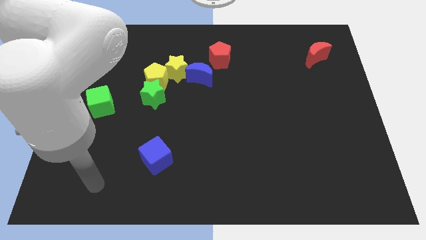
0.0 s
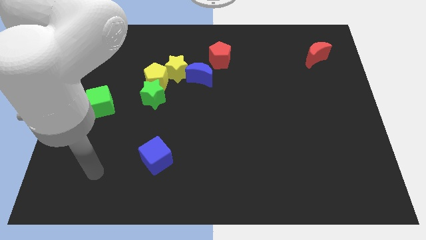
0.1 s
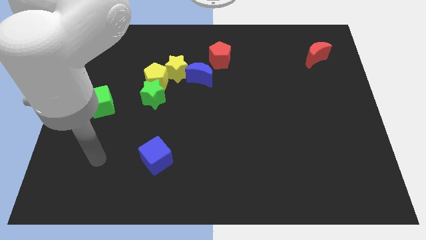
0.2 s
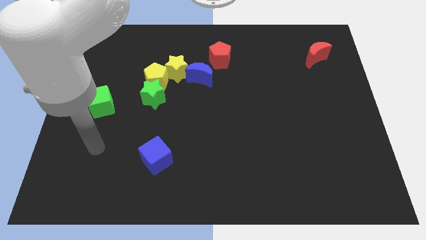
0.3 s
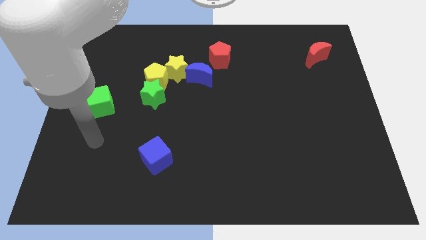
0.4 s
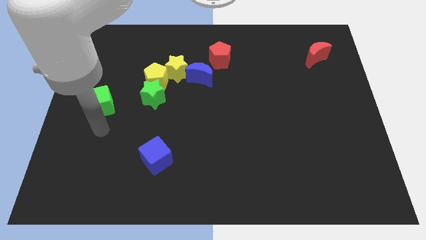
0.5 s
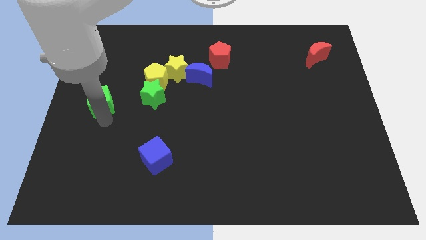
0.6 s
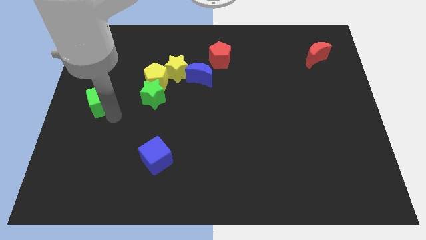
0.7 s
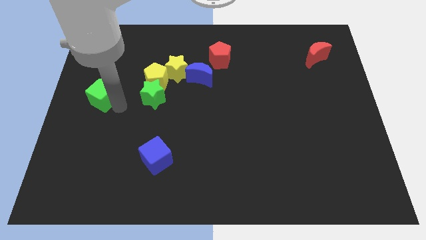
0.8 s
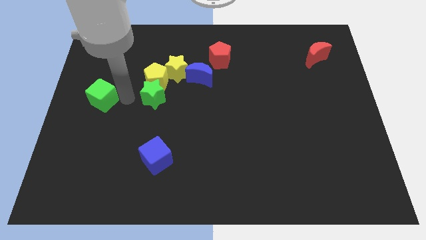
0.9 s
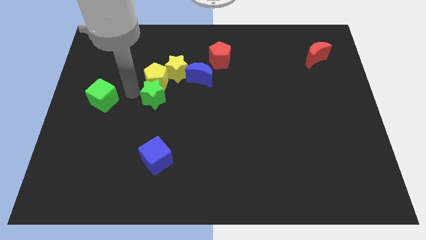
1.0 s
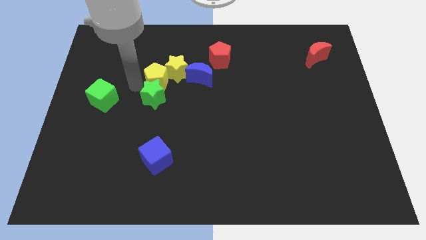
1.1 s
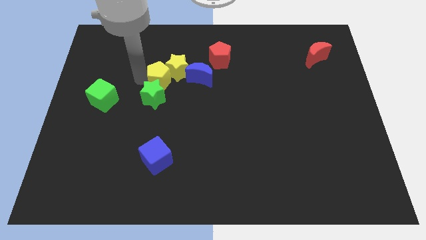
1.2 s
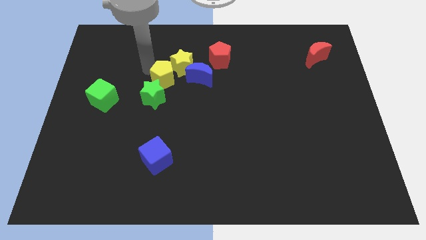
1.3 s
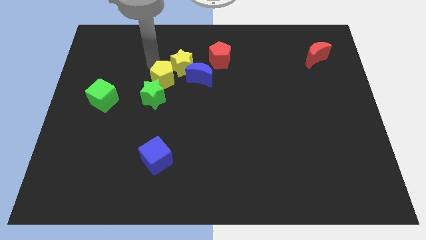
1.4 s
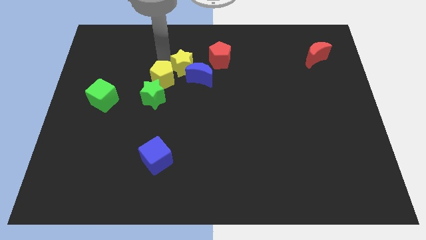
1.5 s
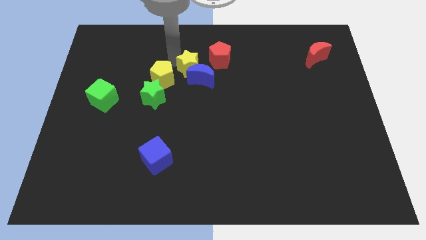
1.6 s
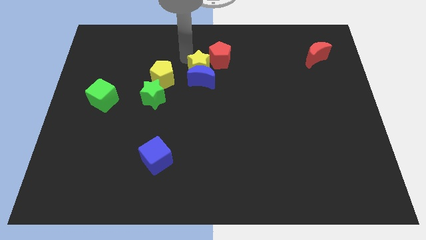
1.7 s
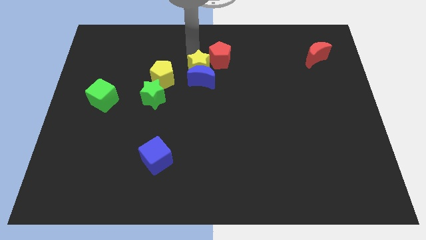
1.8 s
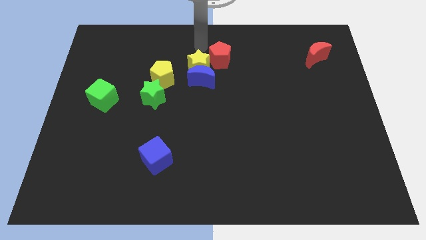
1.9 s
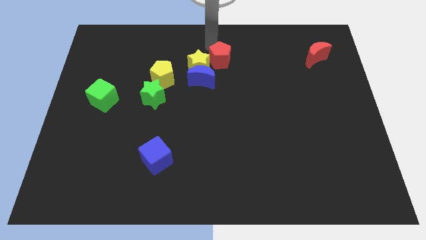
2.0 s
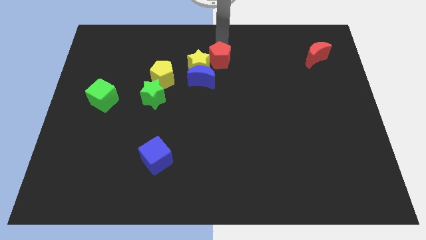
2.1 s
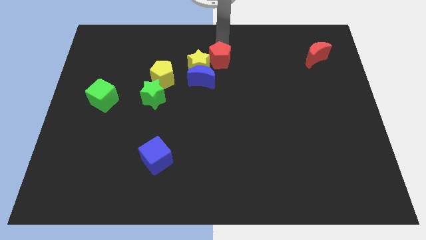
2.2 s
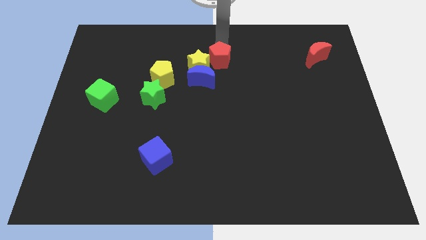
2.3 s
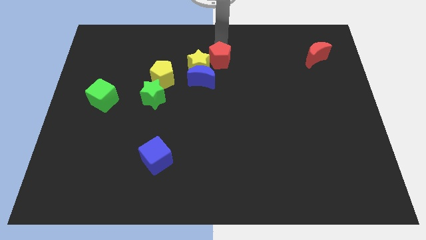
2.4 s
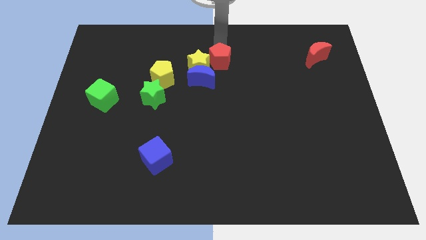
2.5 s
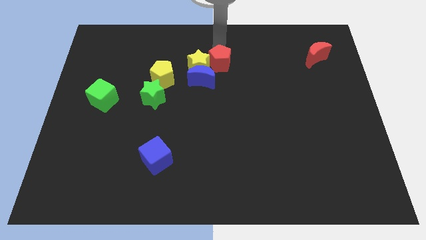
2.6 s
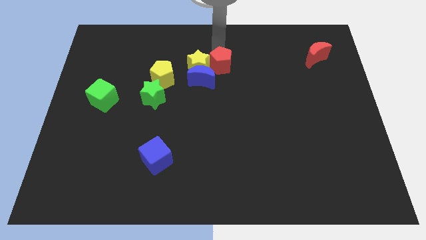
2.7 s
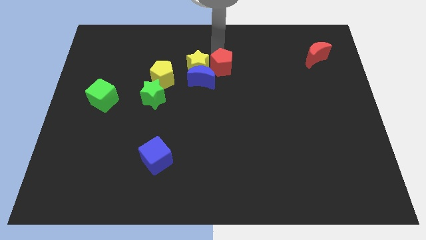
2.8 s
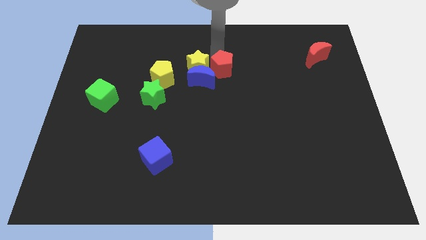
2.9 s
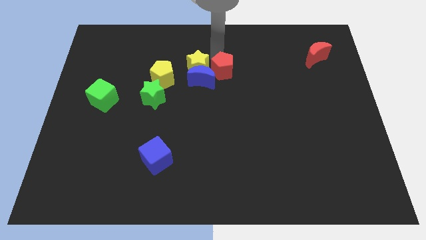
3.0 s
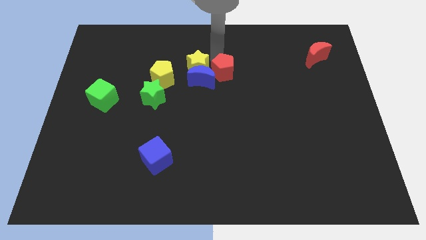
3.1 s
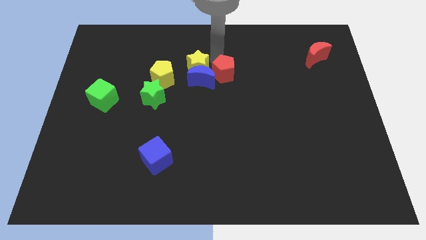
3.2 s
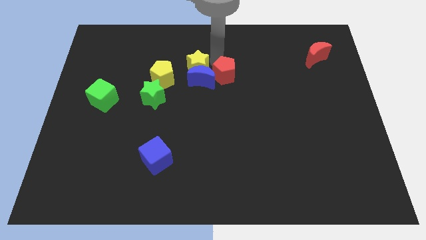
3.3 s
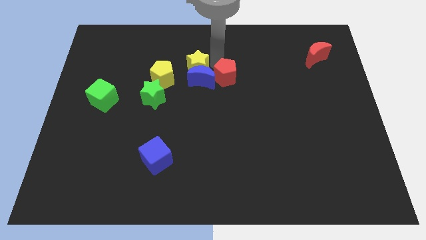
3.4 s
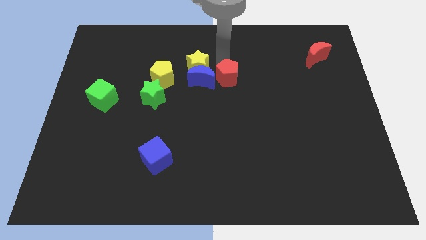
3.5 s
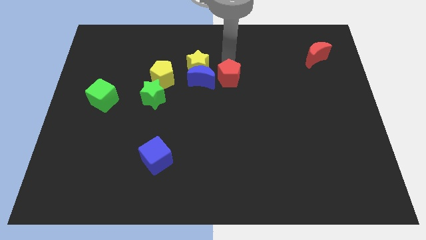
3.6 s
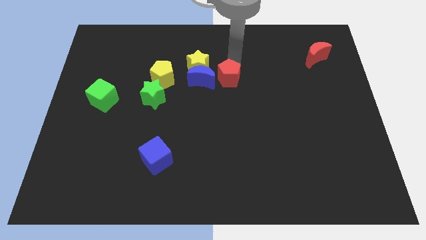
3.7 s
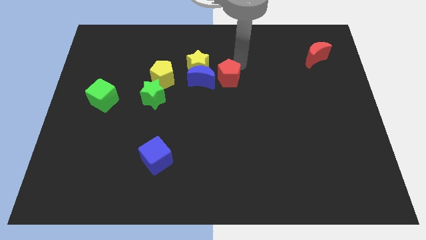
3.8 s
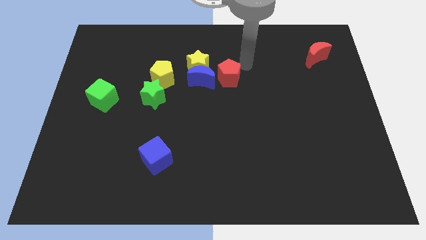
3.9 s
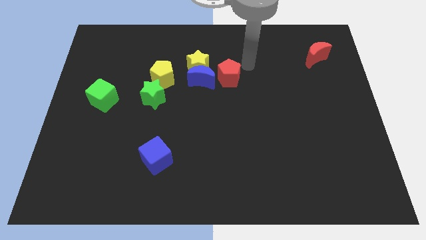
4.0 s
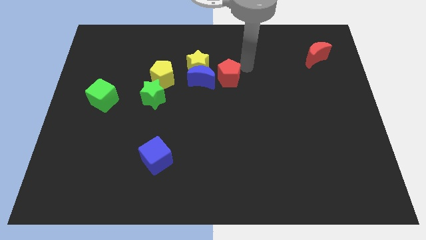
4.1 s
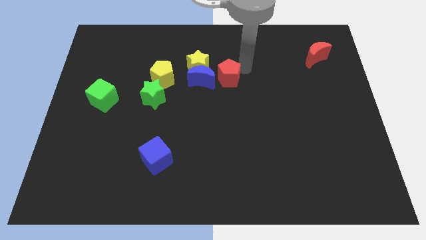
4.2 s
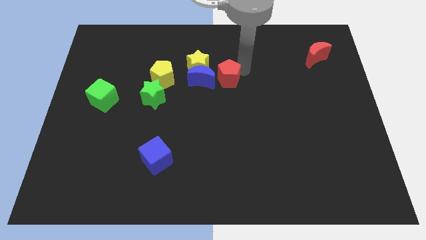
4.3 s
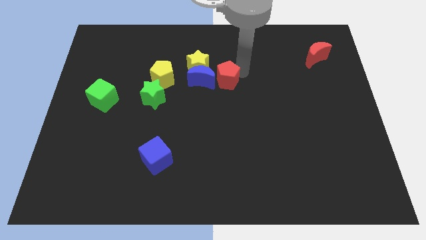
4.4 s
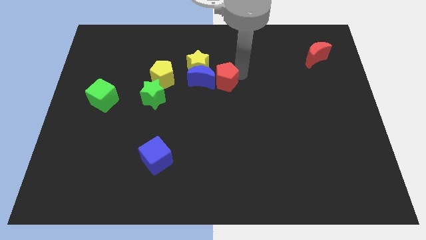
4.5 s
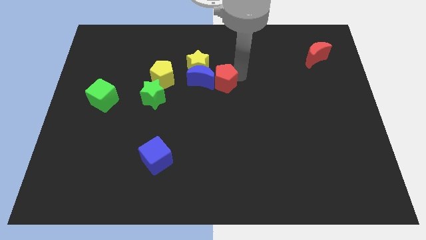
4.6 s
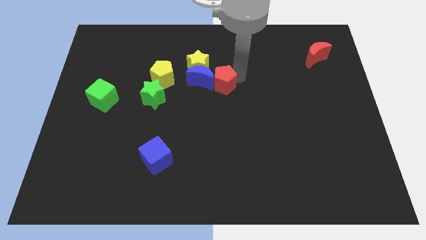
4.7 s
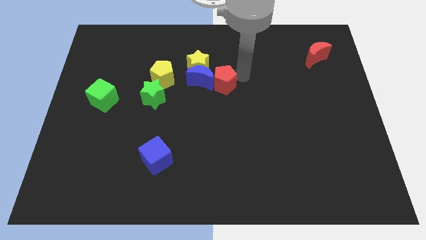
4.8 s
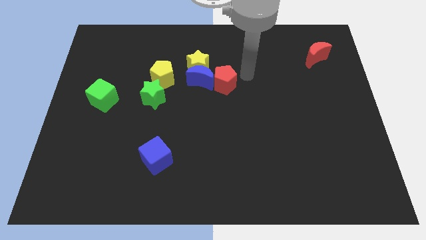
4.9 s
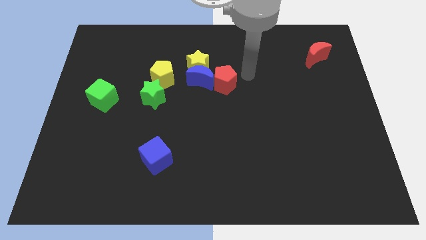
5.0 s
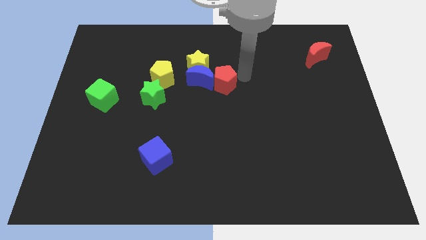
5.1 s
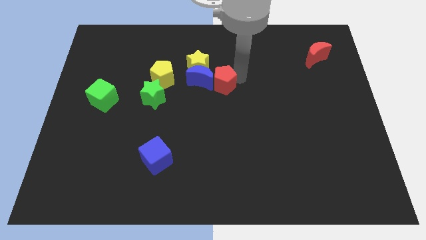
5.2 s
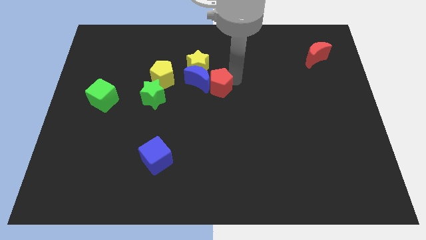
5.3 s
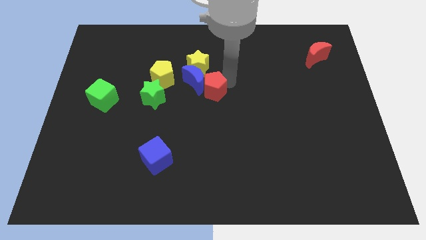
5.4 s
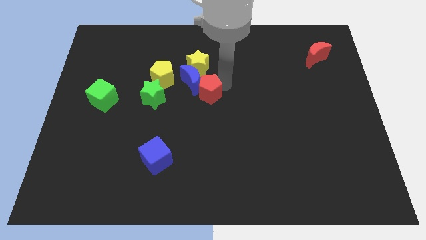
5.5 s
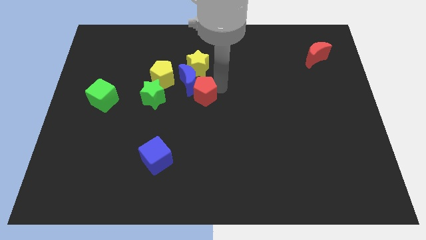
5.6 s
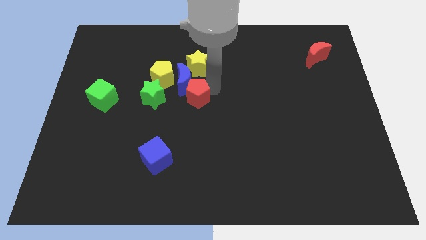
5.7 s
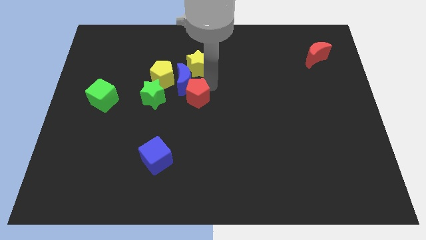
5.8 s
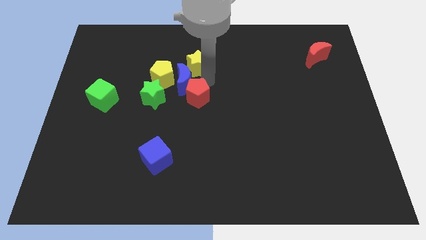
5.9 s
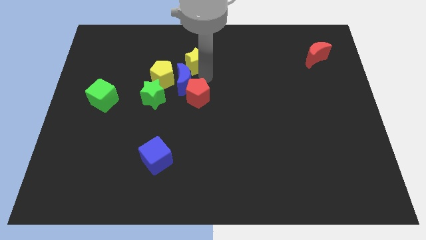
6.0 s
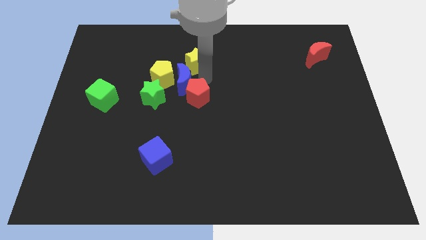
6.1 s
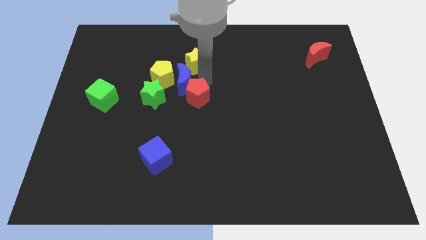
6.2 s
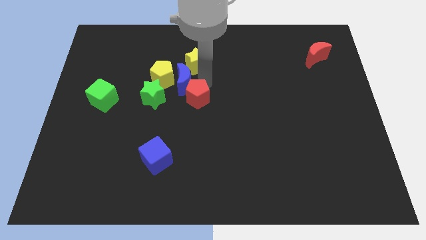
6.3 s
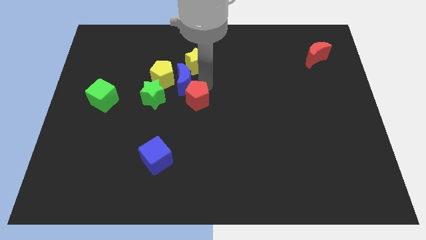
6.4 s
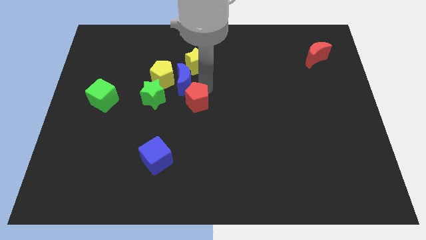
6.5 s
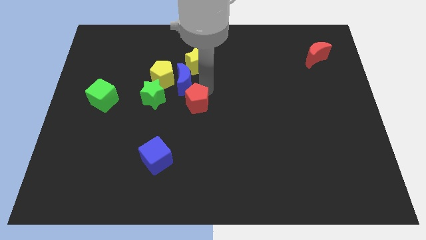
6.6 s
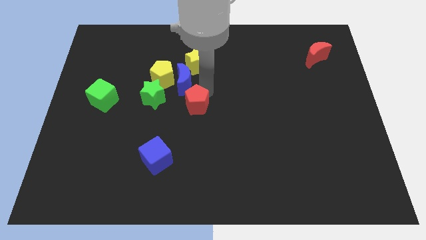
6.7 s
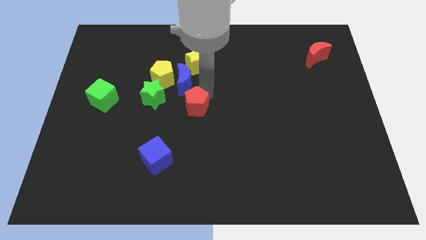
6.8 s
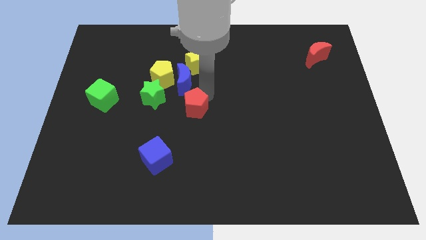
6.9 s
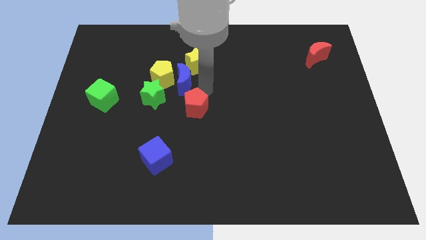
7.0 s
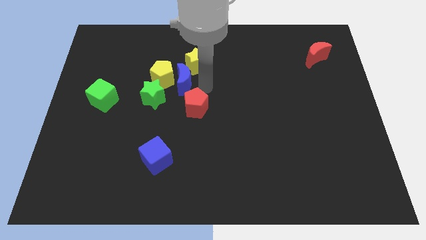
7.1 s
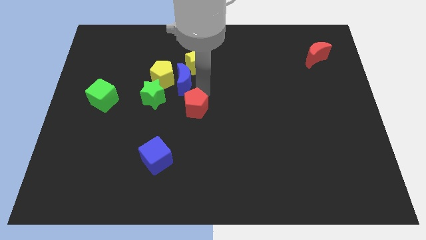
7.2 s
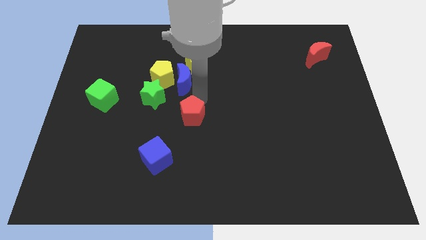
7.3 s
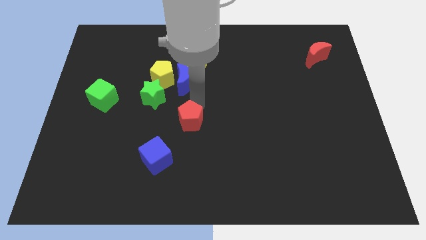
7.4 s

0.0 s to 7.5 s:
put the red pentagon to the top right of the blue cube

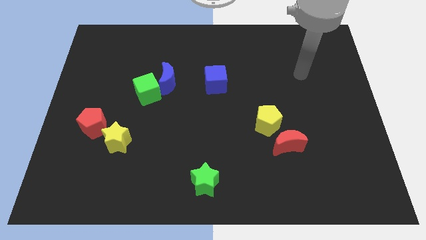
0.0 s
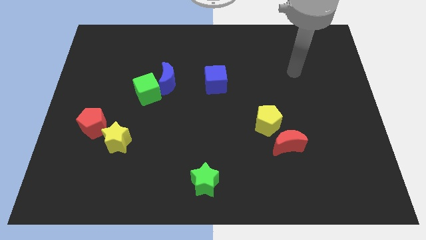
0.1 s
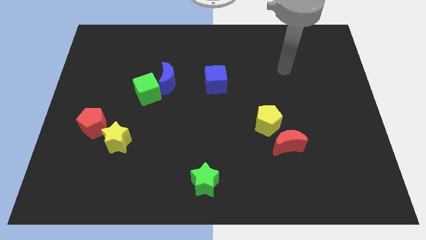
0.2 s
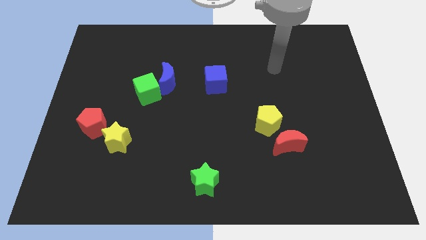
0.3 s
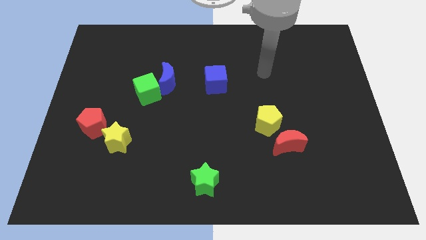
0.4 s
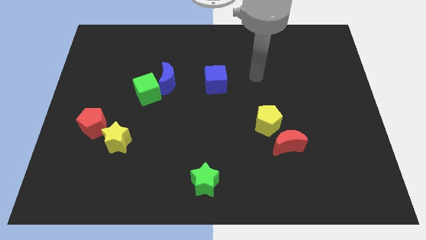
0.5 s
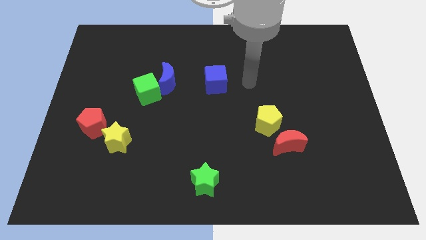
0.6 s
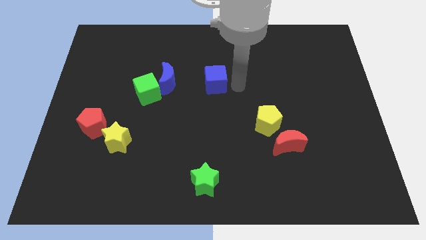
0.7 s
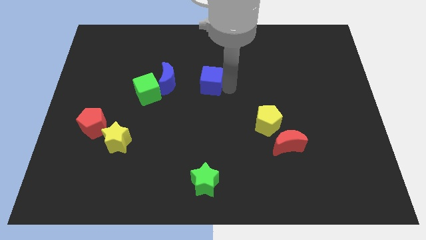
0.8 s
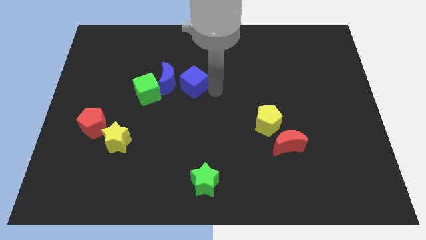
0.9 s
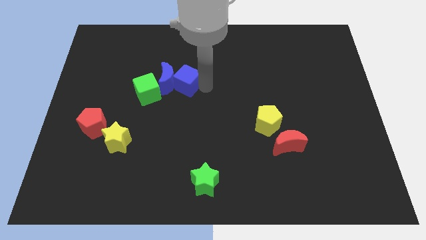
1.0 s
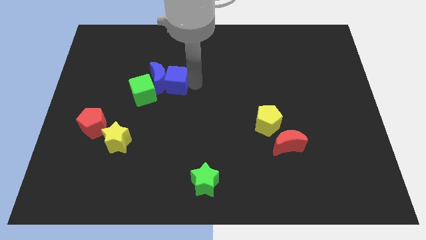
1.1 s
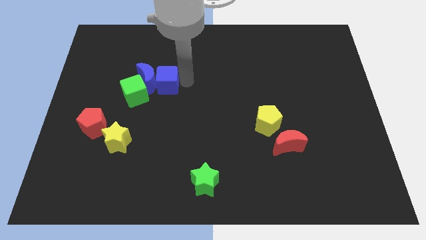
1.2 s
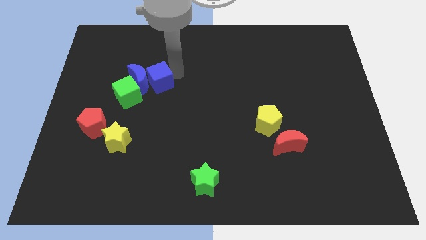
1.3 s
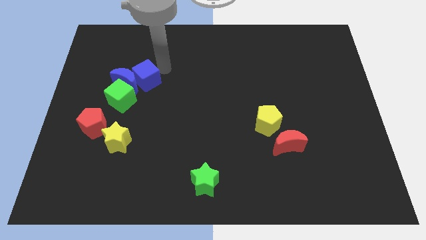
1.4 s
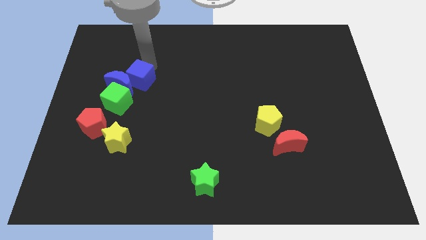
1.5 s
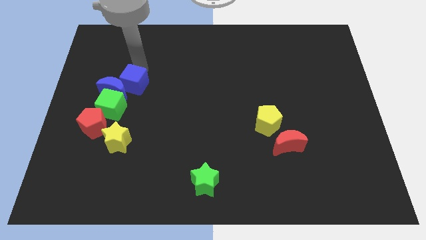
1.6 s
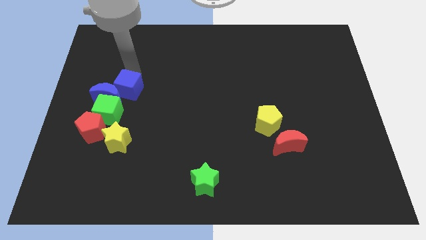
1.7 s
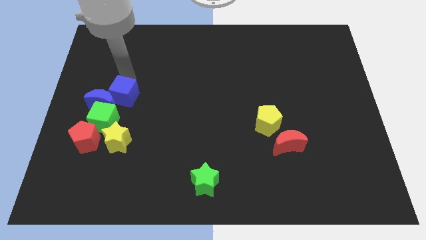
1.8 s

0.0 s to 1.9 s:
move the blue moon to the top left of the yellow star
